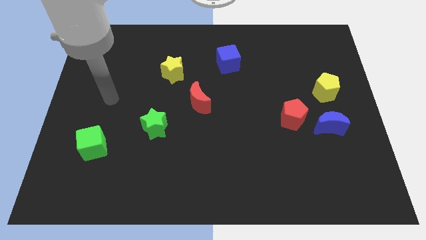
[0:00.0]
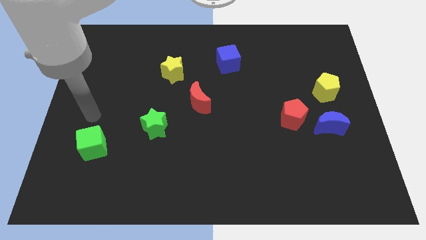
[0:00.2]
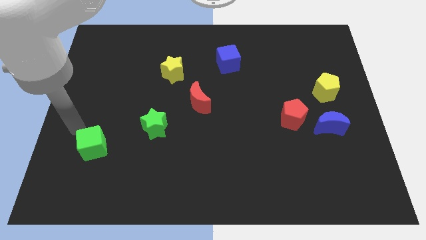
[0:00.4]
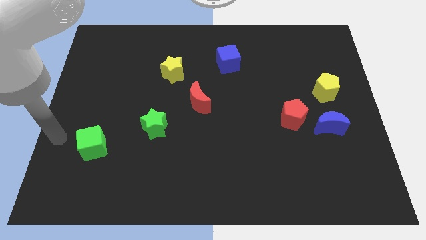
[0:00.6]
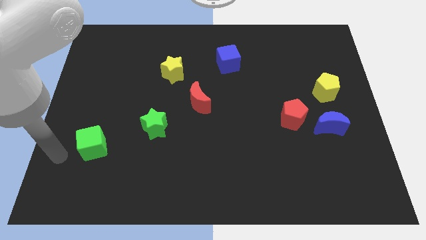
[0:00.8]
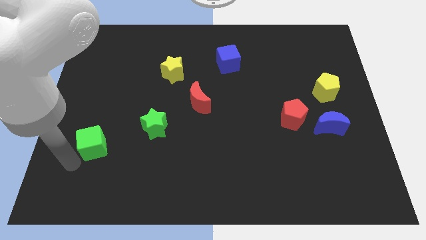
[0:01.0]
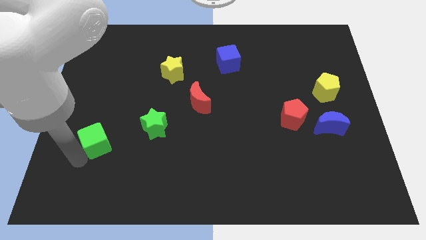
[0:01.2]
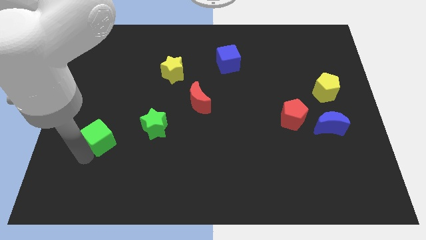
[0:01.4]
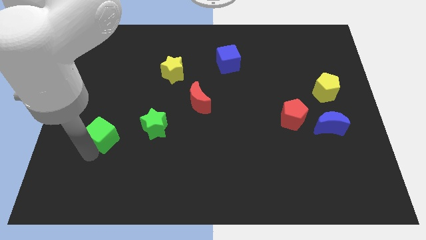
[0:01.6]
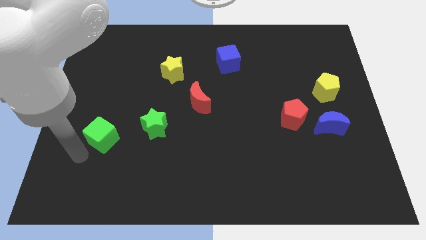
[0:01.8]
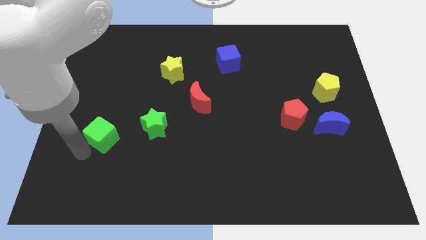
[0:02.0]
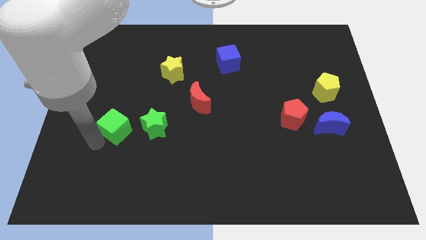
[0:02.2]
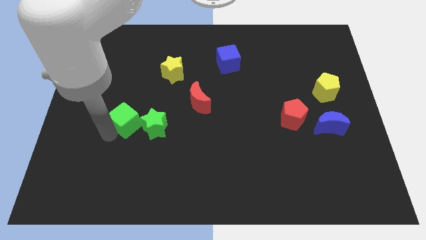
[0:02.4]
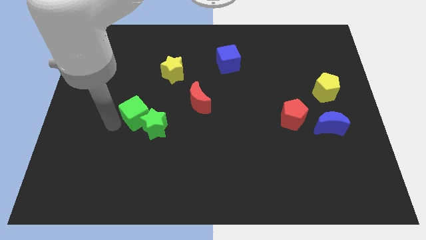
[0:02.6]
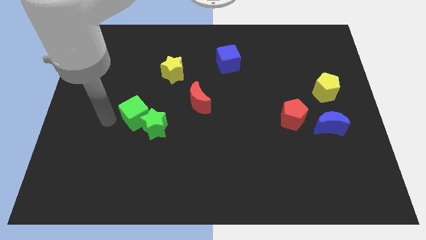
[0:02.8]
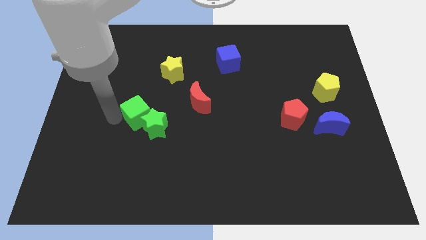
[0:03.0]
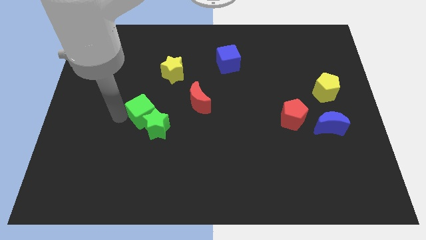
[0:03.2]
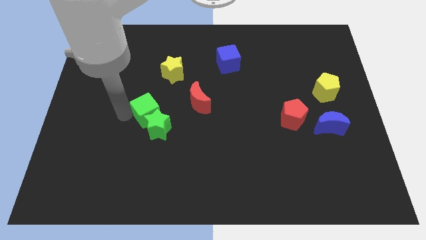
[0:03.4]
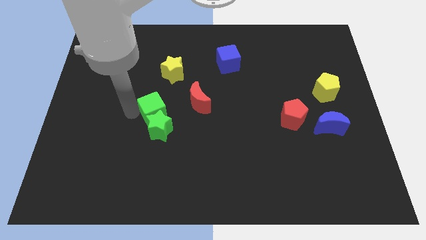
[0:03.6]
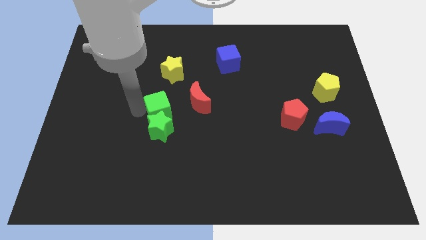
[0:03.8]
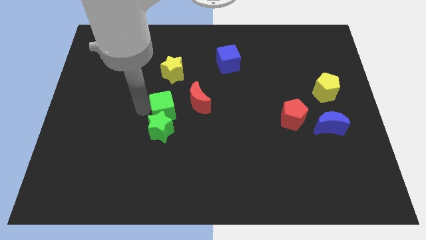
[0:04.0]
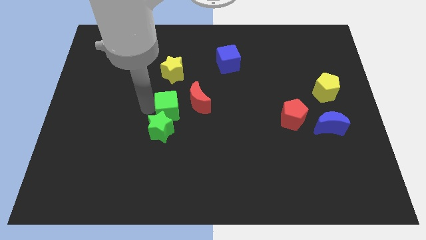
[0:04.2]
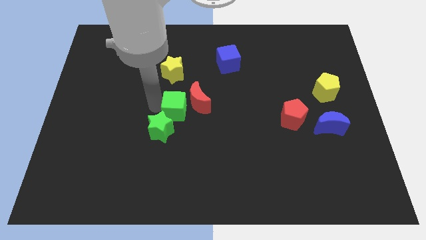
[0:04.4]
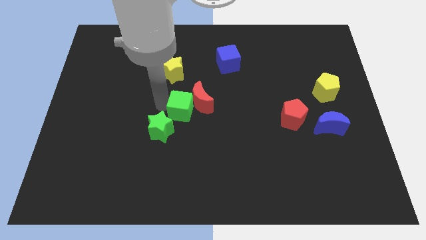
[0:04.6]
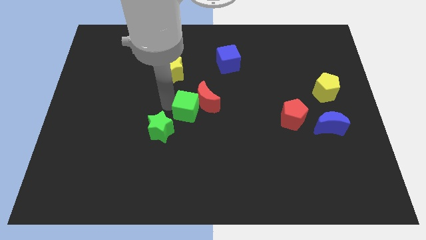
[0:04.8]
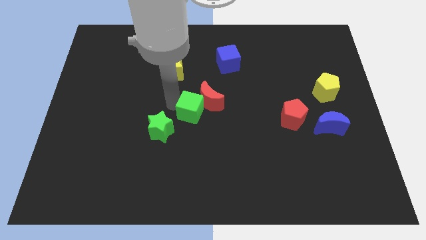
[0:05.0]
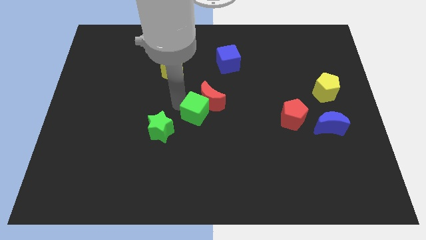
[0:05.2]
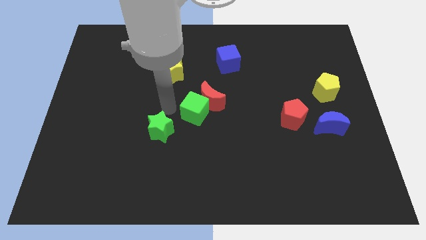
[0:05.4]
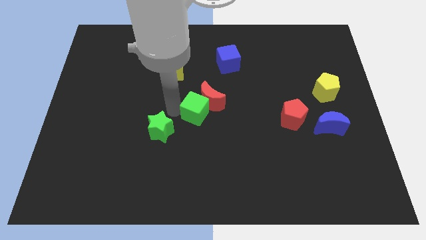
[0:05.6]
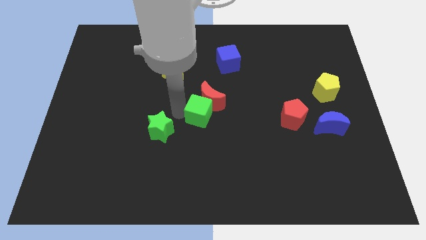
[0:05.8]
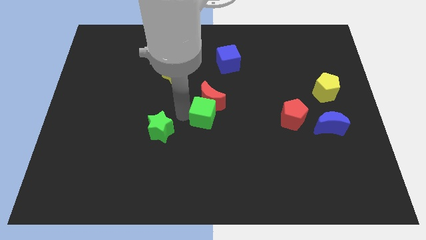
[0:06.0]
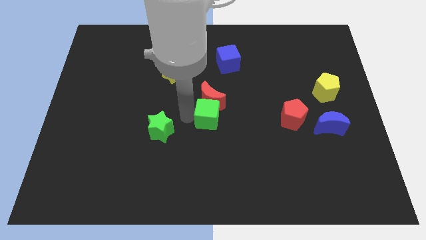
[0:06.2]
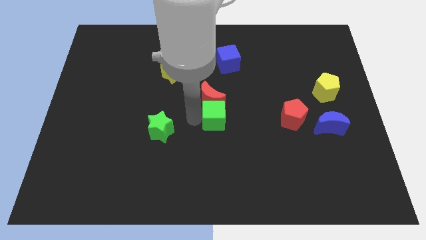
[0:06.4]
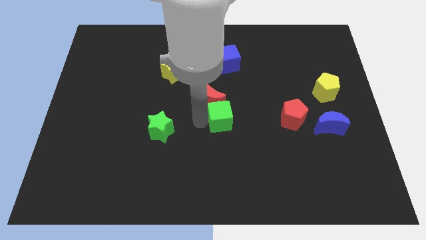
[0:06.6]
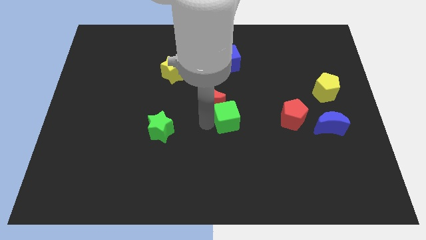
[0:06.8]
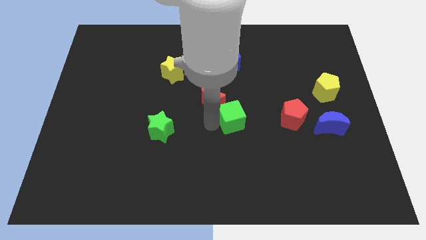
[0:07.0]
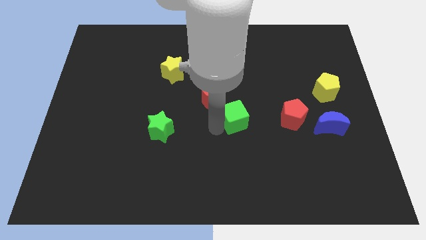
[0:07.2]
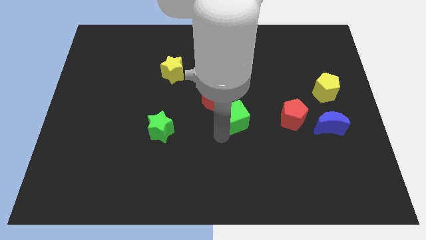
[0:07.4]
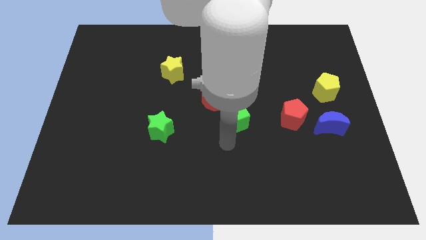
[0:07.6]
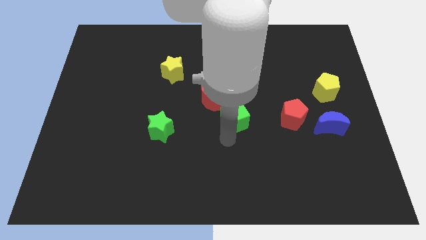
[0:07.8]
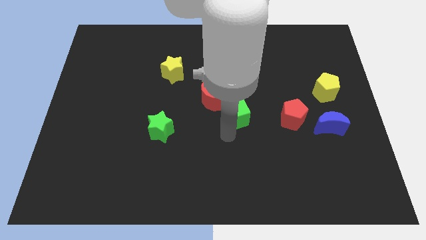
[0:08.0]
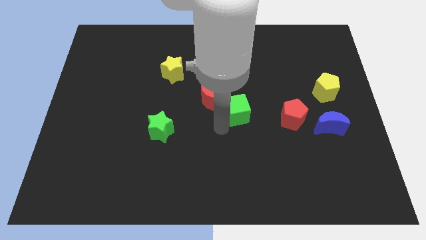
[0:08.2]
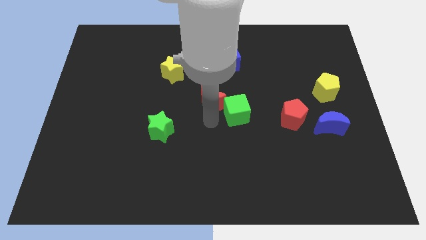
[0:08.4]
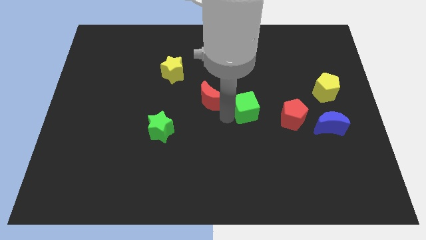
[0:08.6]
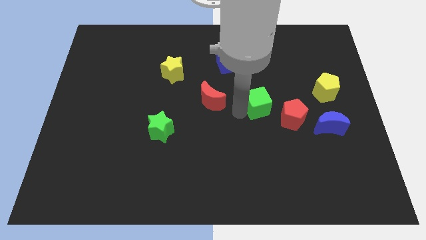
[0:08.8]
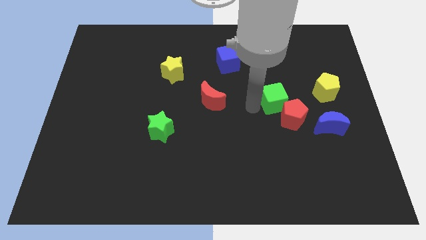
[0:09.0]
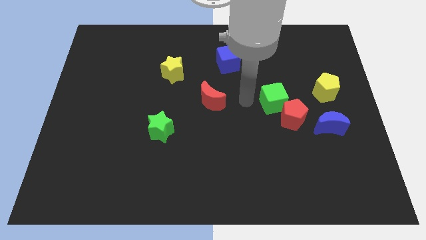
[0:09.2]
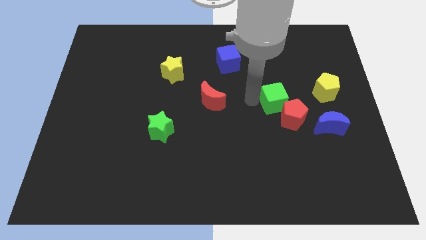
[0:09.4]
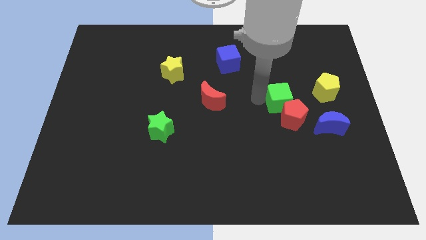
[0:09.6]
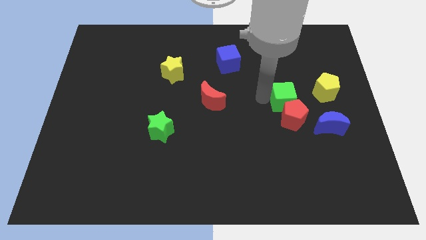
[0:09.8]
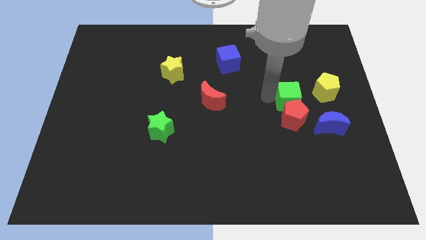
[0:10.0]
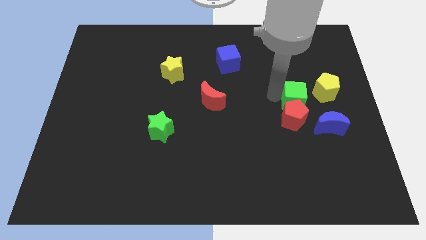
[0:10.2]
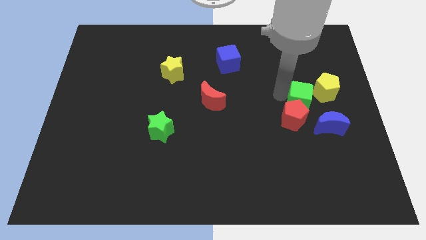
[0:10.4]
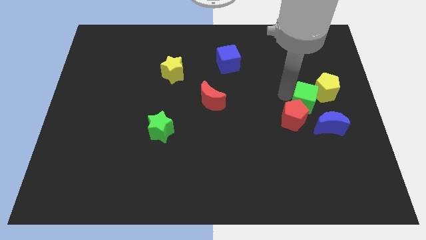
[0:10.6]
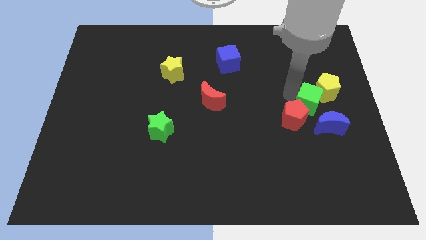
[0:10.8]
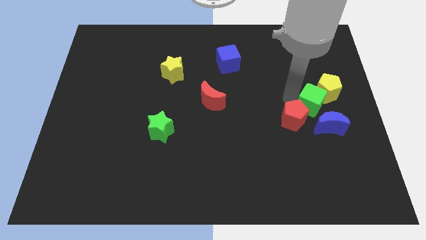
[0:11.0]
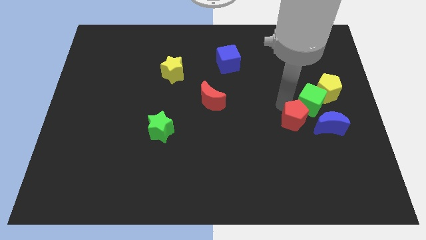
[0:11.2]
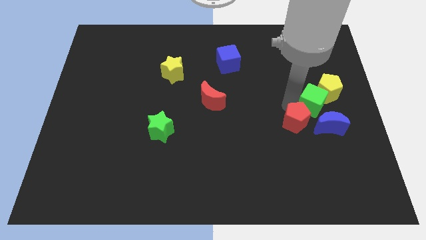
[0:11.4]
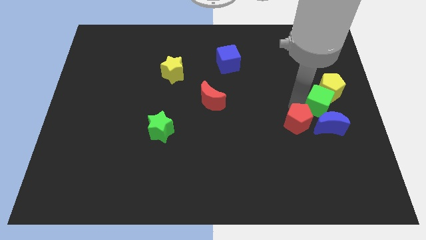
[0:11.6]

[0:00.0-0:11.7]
slide the green cube to the center right
